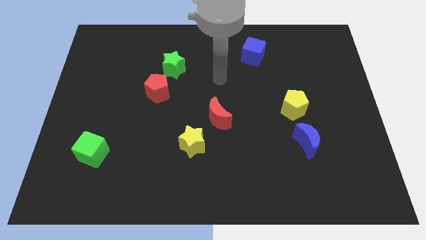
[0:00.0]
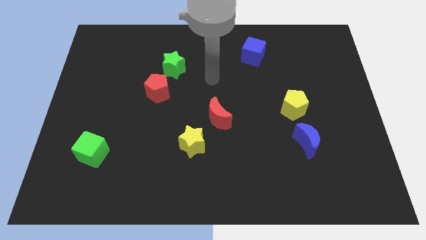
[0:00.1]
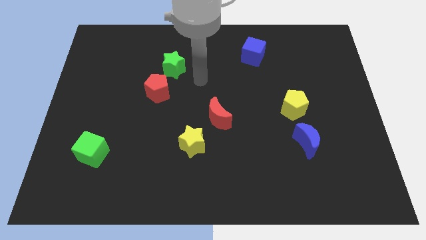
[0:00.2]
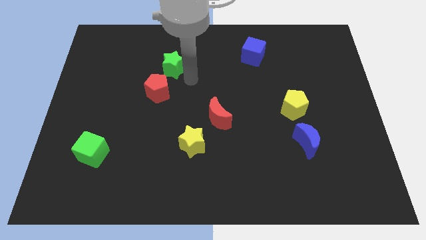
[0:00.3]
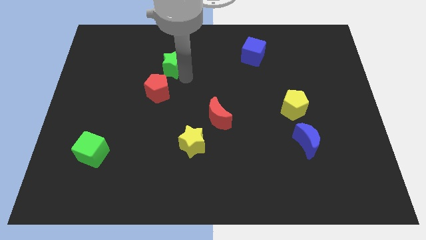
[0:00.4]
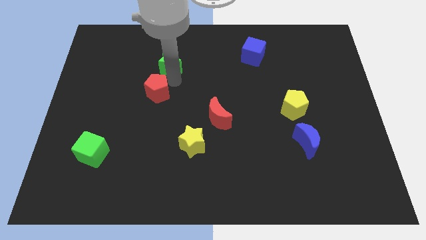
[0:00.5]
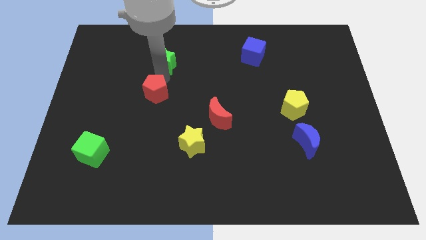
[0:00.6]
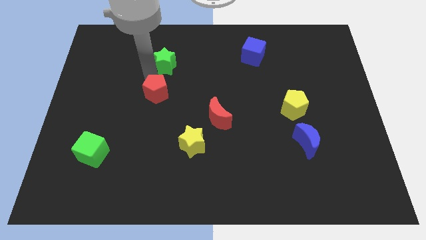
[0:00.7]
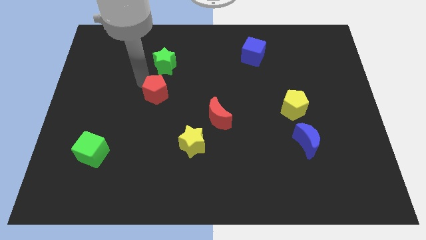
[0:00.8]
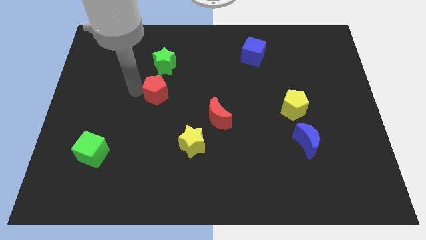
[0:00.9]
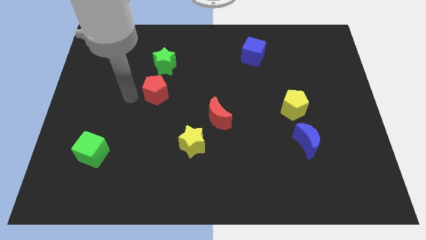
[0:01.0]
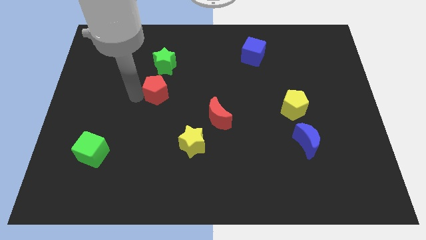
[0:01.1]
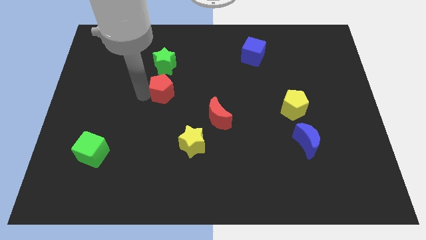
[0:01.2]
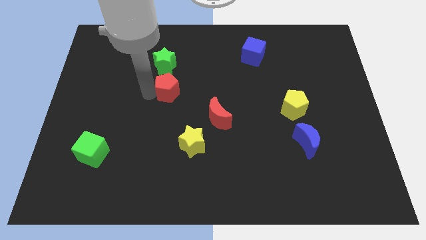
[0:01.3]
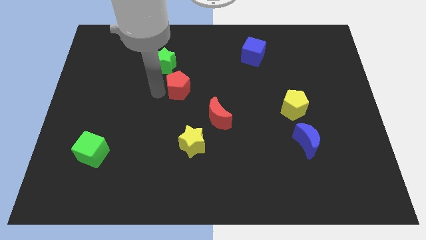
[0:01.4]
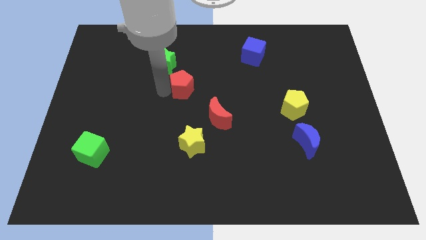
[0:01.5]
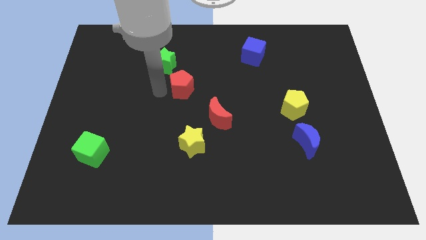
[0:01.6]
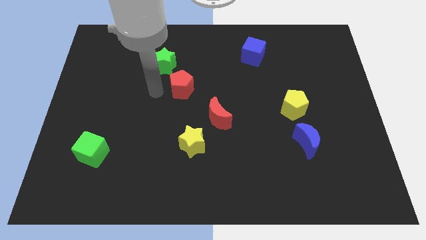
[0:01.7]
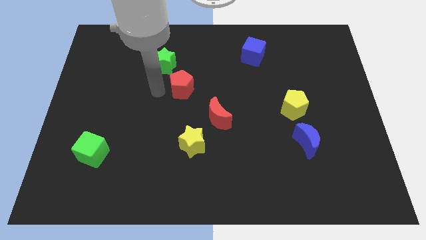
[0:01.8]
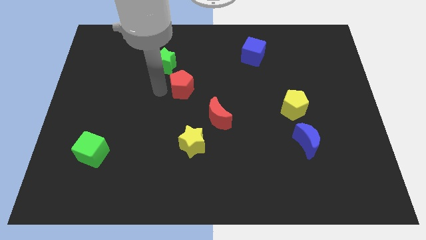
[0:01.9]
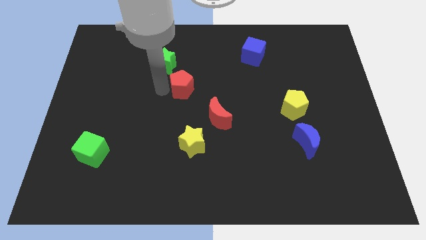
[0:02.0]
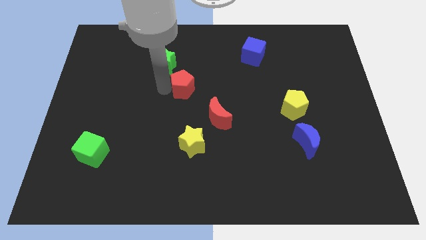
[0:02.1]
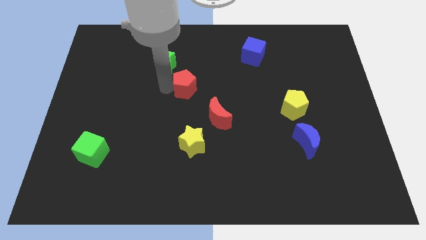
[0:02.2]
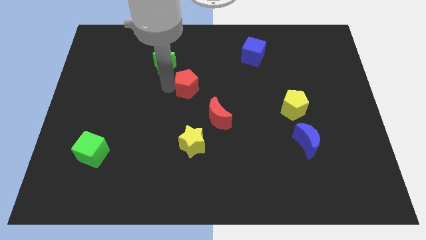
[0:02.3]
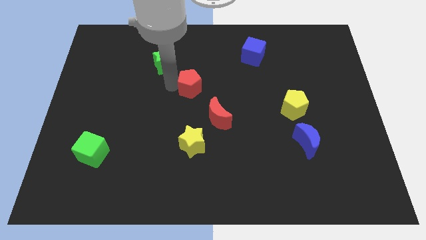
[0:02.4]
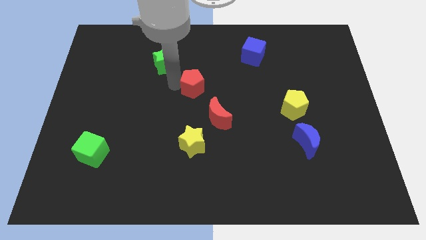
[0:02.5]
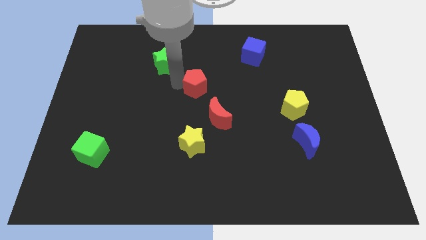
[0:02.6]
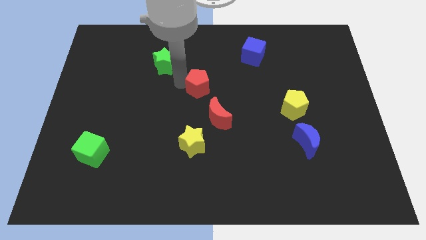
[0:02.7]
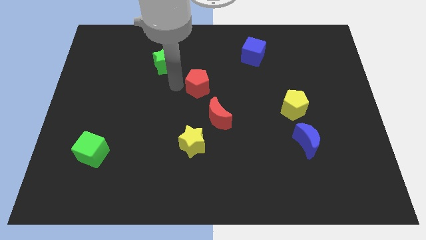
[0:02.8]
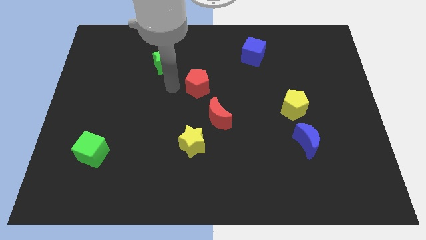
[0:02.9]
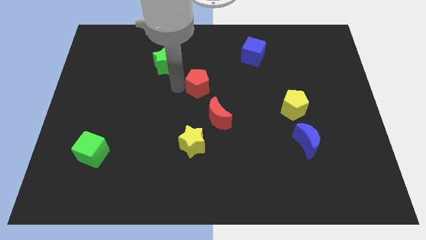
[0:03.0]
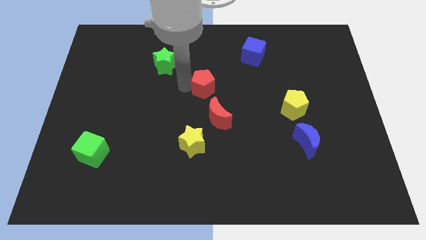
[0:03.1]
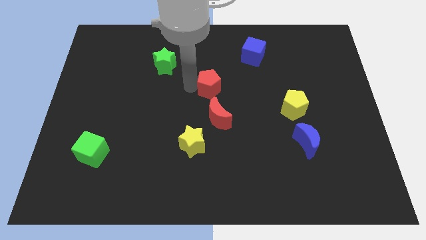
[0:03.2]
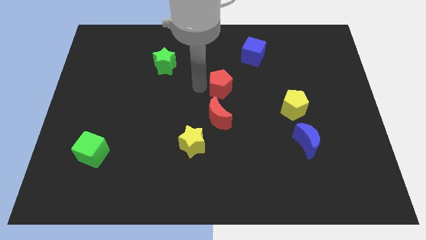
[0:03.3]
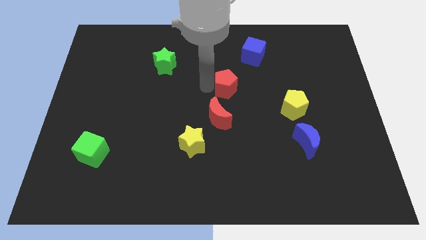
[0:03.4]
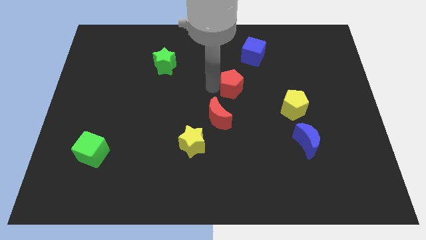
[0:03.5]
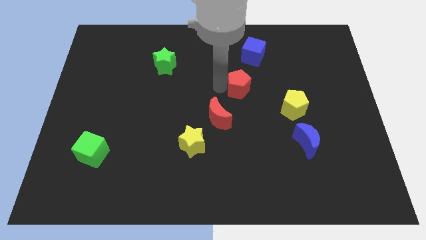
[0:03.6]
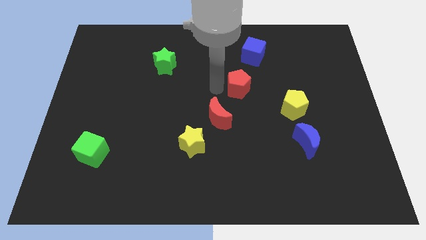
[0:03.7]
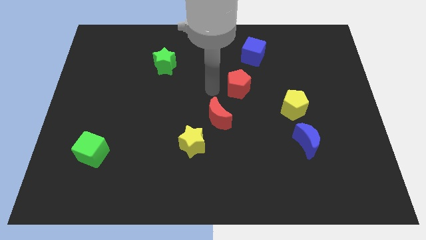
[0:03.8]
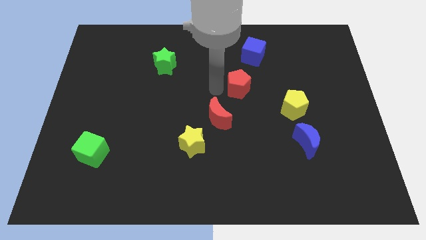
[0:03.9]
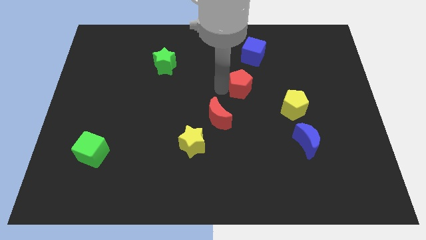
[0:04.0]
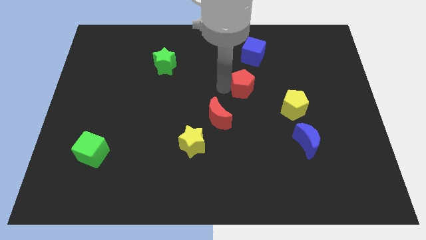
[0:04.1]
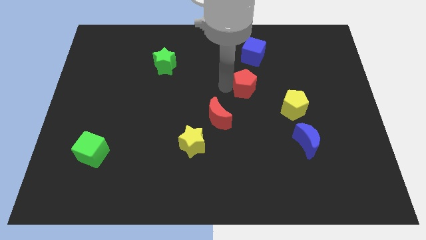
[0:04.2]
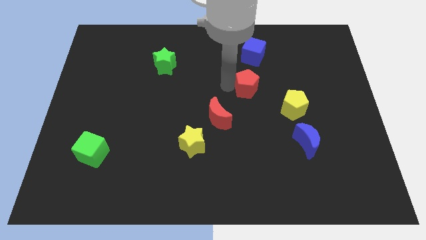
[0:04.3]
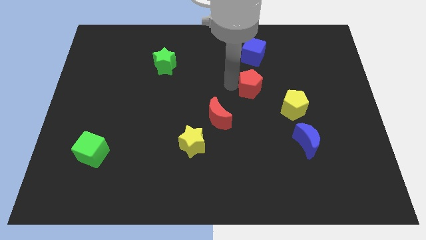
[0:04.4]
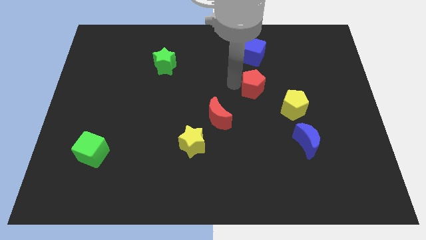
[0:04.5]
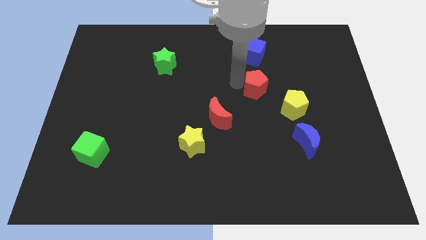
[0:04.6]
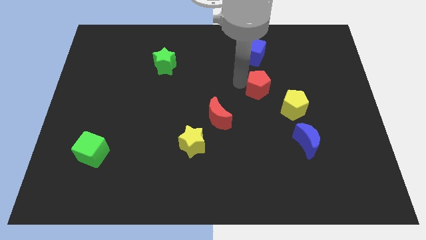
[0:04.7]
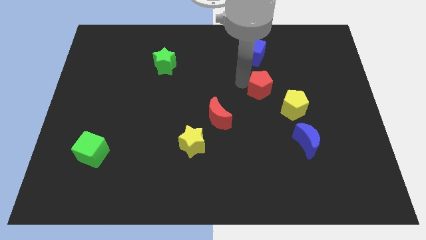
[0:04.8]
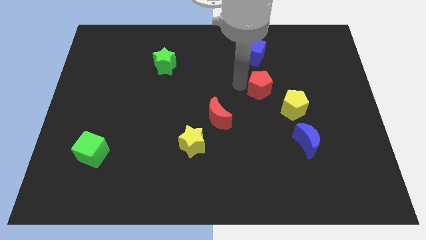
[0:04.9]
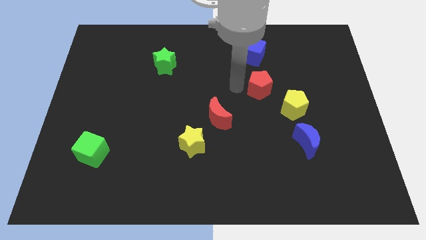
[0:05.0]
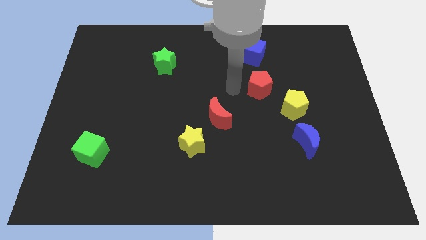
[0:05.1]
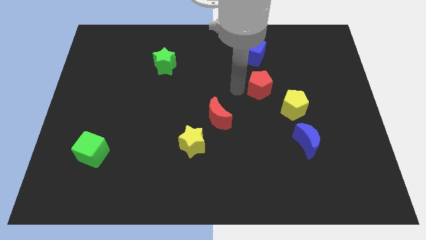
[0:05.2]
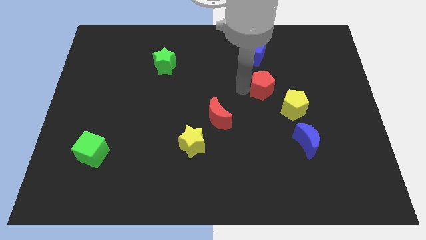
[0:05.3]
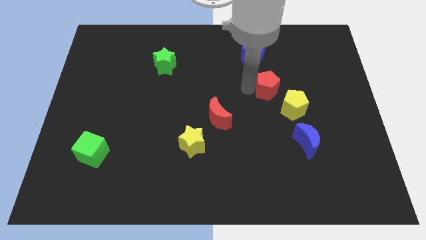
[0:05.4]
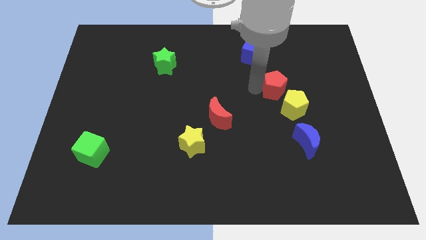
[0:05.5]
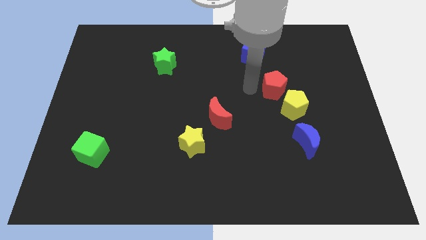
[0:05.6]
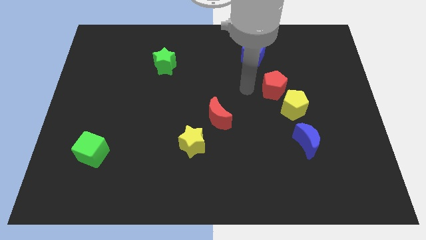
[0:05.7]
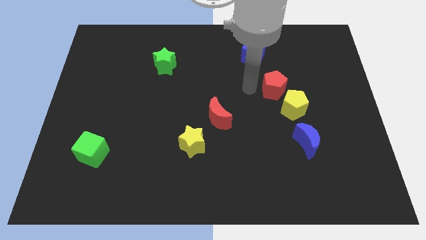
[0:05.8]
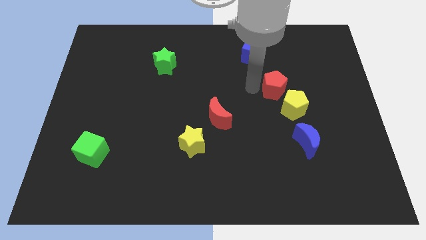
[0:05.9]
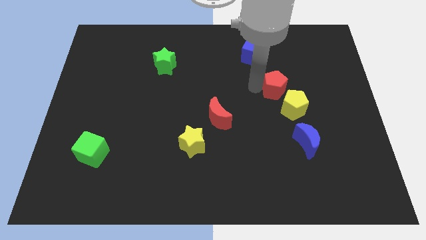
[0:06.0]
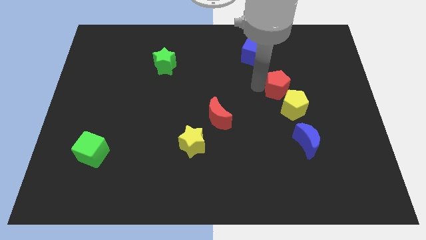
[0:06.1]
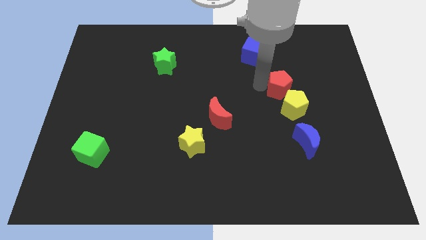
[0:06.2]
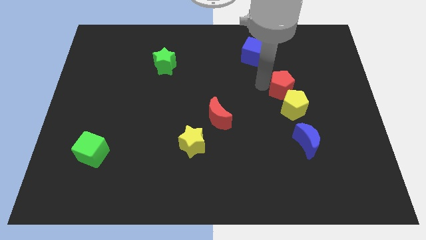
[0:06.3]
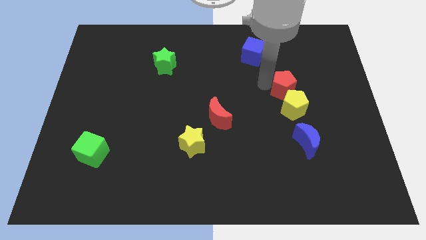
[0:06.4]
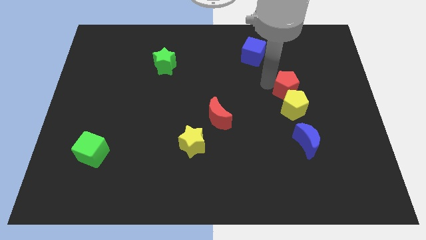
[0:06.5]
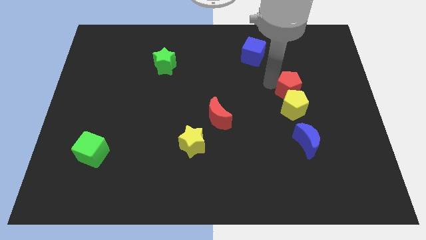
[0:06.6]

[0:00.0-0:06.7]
slide the red pentagon to the top right side of the yellow pentagon

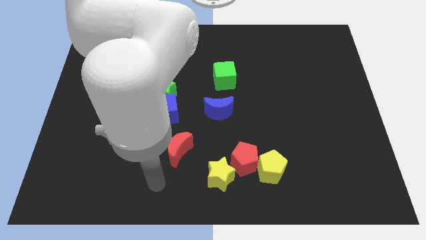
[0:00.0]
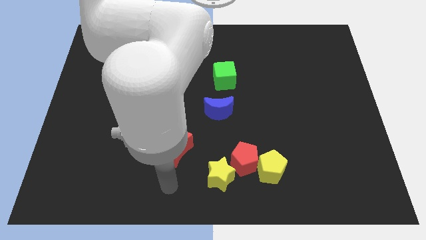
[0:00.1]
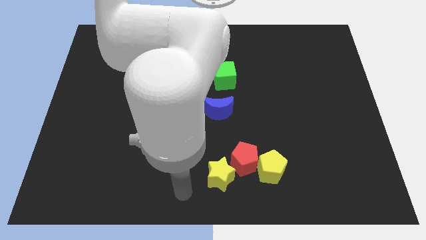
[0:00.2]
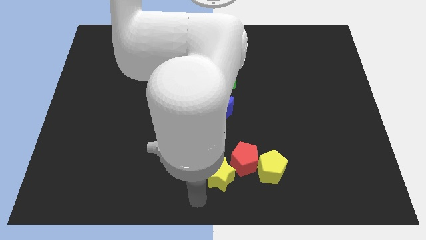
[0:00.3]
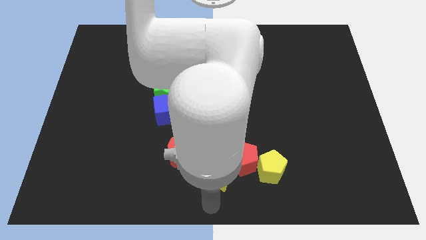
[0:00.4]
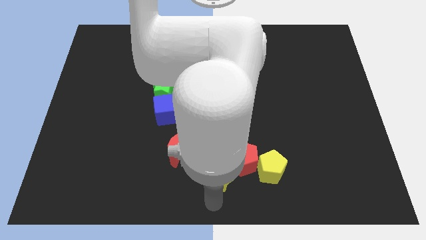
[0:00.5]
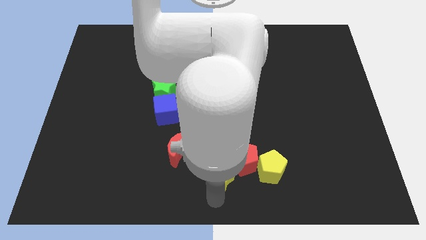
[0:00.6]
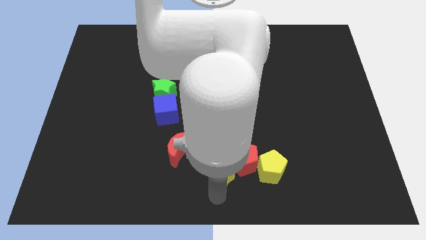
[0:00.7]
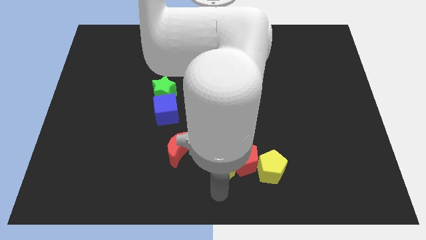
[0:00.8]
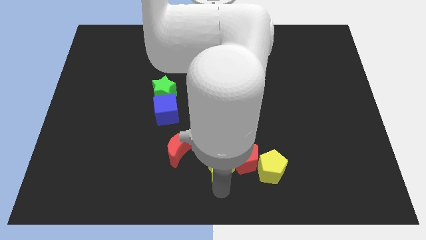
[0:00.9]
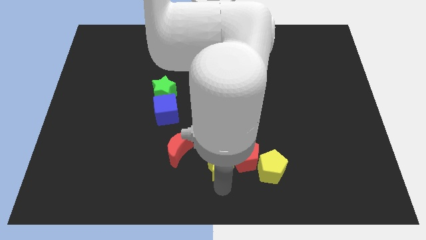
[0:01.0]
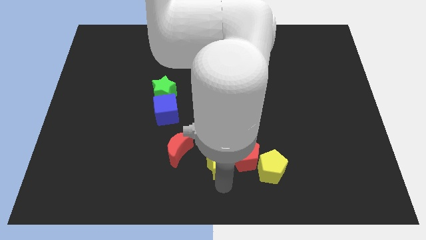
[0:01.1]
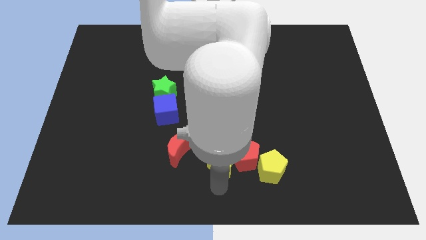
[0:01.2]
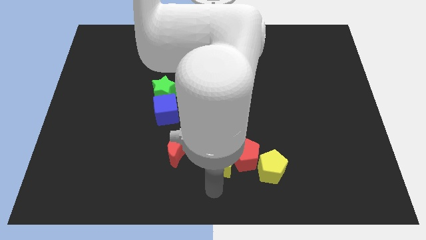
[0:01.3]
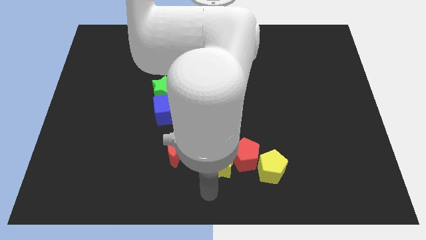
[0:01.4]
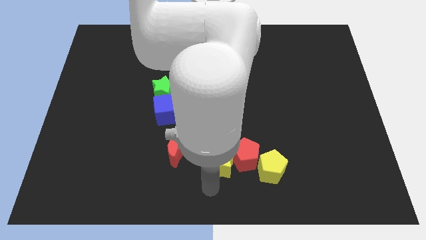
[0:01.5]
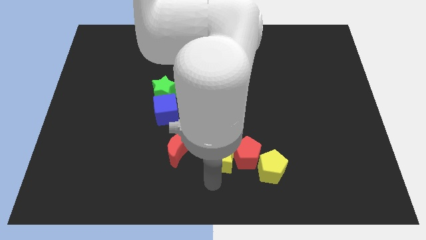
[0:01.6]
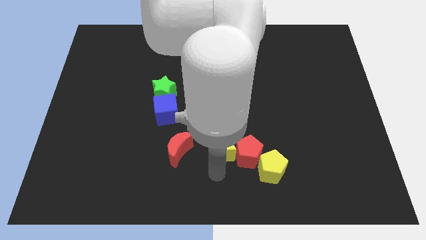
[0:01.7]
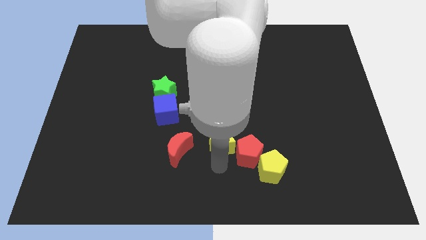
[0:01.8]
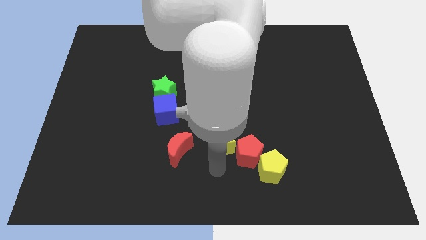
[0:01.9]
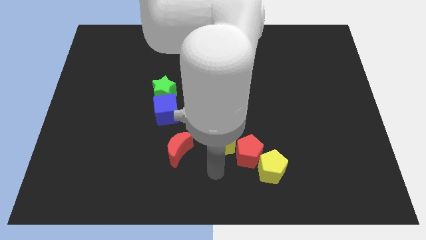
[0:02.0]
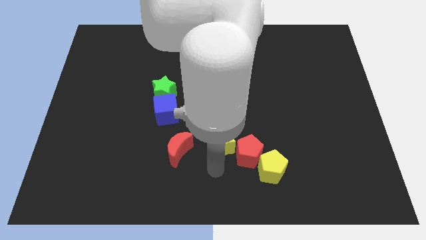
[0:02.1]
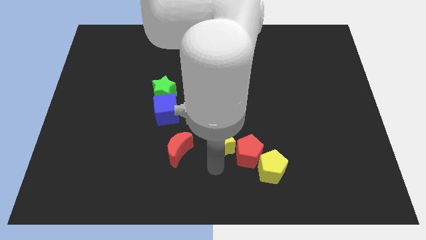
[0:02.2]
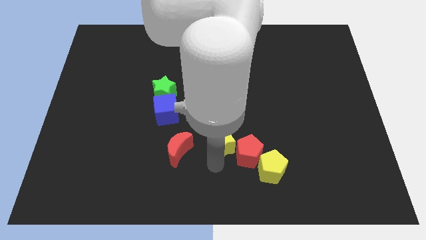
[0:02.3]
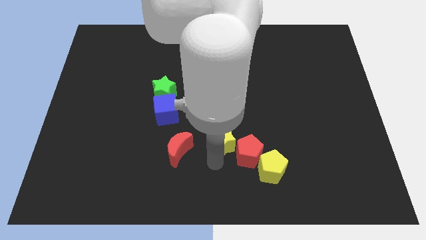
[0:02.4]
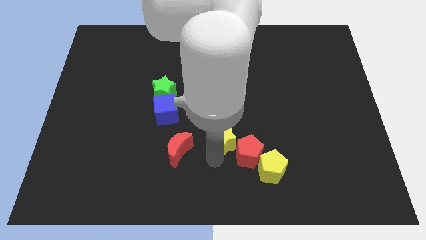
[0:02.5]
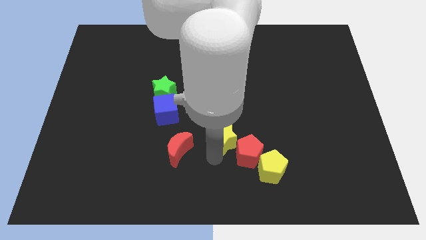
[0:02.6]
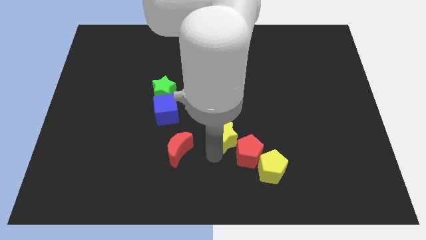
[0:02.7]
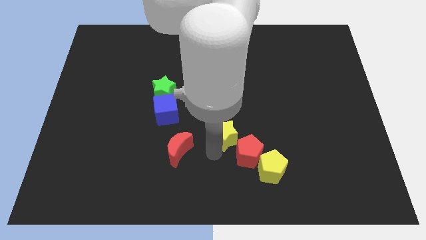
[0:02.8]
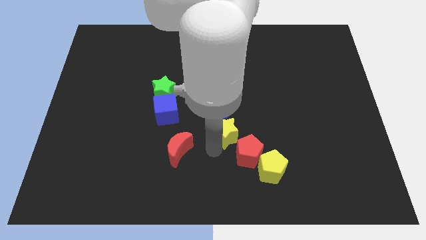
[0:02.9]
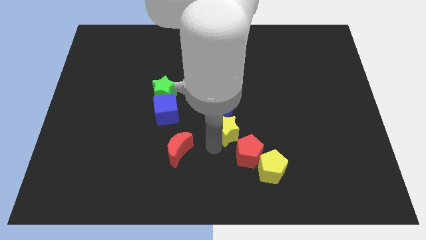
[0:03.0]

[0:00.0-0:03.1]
put the yellow star to the bottom of the green cube
